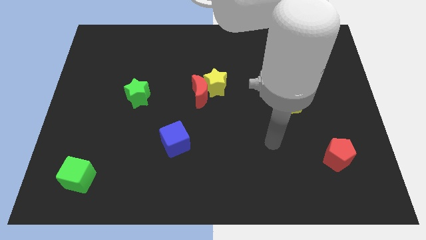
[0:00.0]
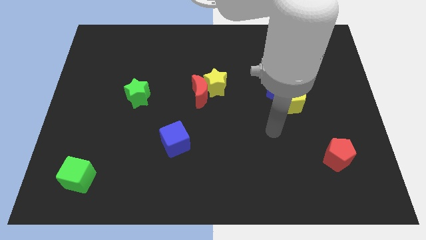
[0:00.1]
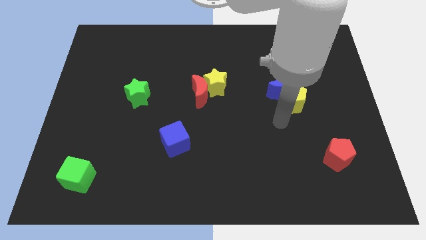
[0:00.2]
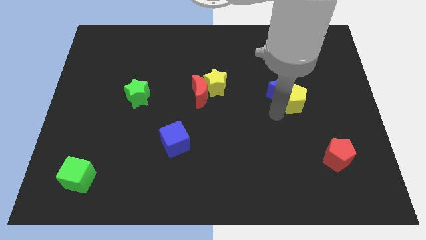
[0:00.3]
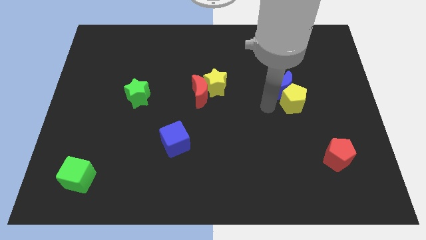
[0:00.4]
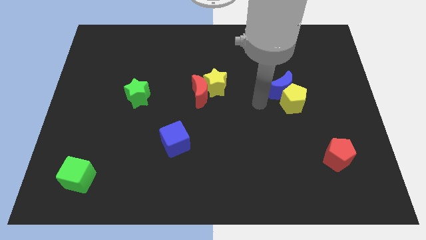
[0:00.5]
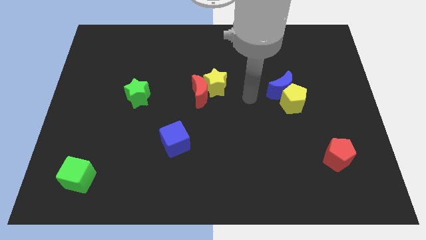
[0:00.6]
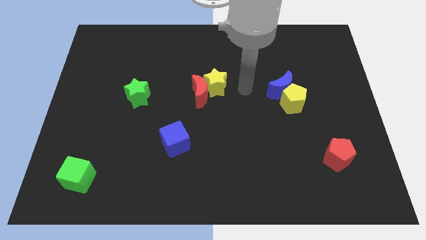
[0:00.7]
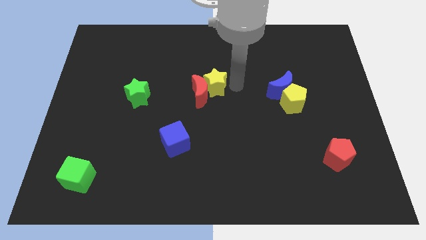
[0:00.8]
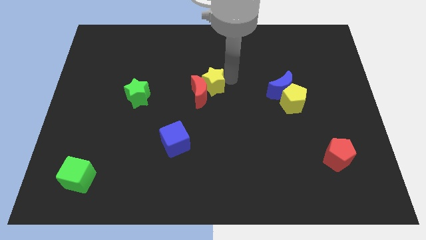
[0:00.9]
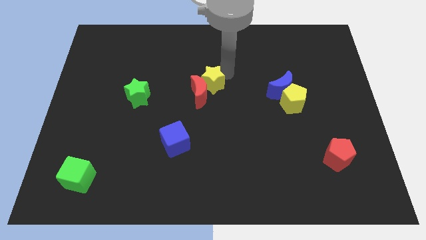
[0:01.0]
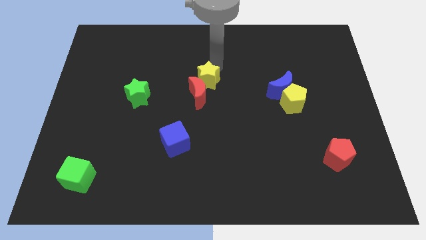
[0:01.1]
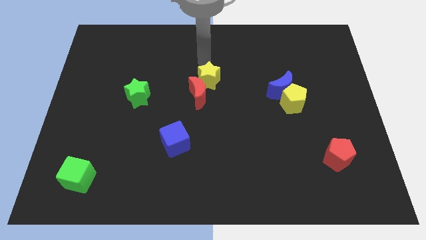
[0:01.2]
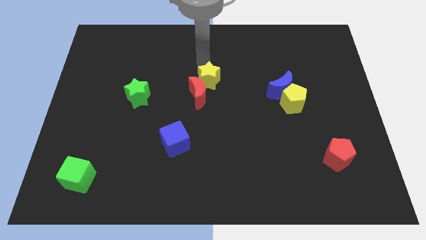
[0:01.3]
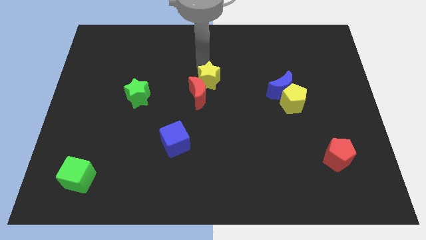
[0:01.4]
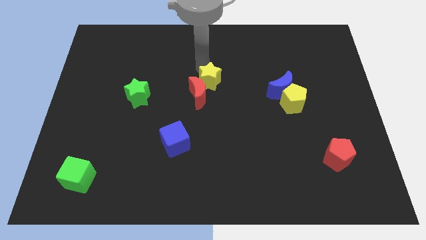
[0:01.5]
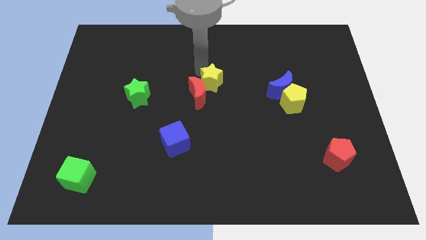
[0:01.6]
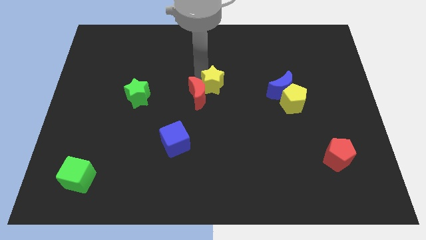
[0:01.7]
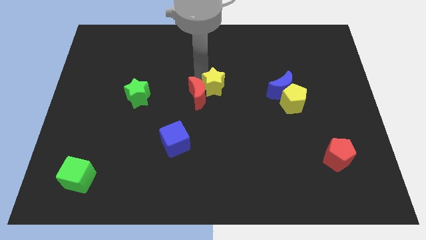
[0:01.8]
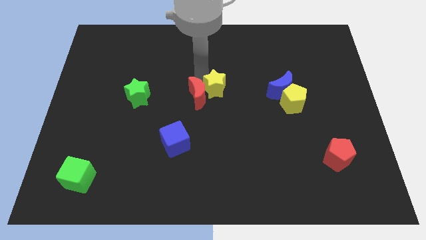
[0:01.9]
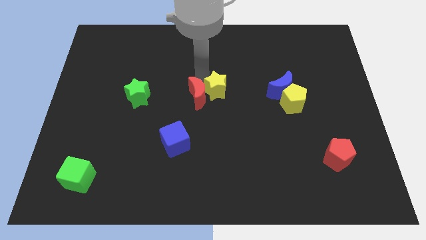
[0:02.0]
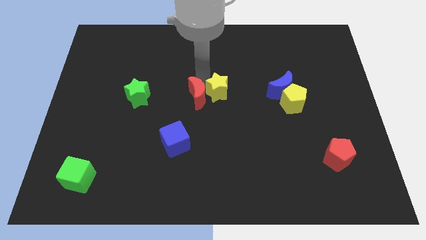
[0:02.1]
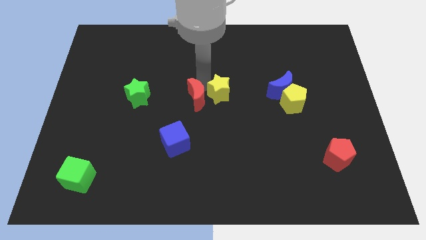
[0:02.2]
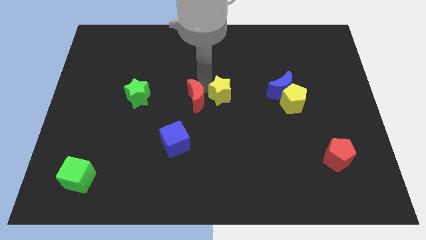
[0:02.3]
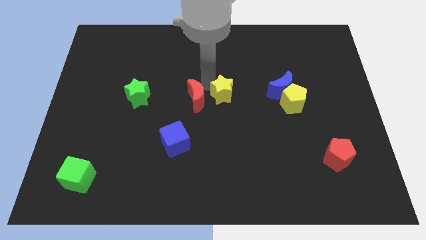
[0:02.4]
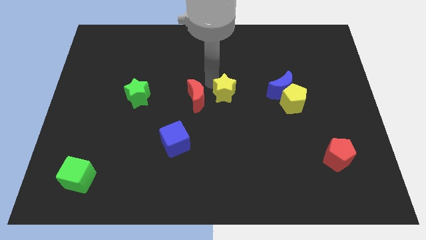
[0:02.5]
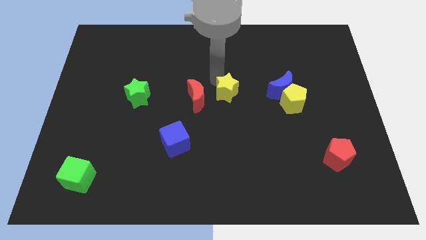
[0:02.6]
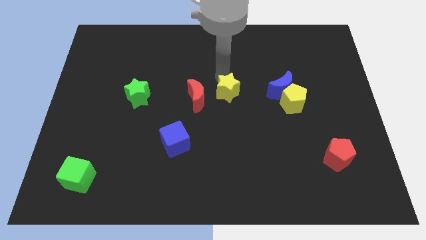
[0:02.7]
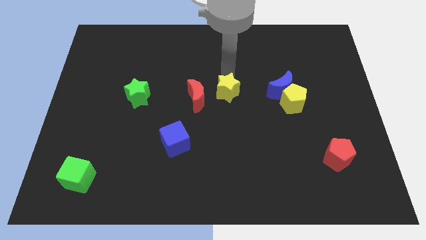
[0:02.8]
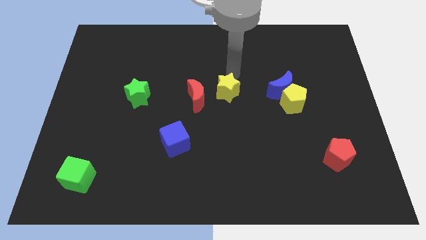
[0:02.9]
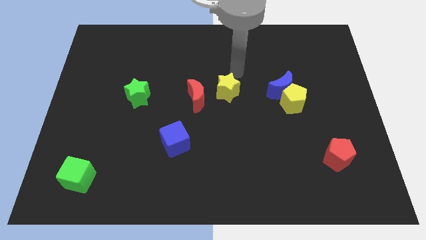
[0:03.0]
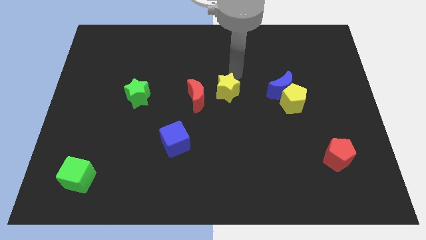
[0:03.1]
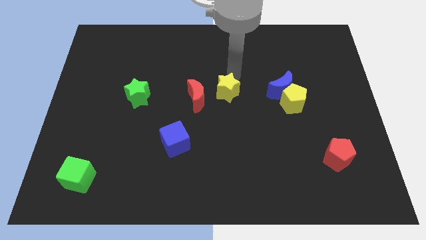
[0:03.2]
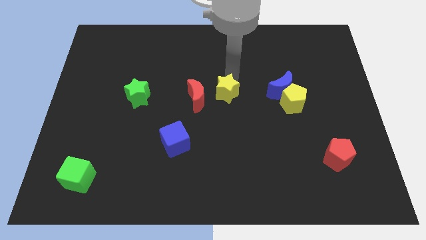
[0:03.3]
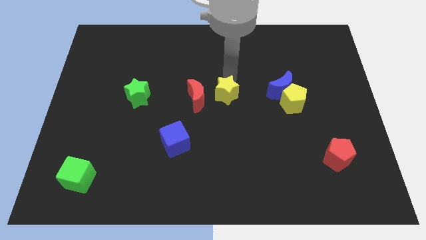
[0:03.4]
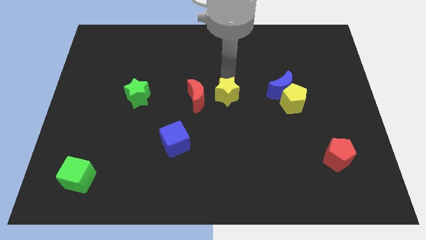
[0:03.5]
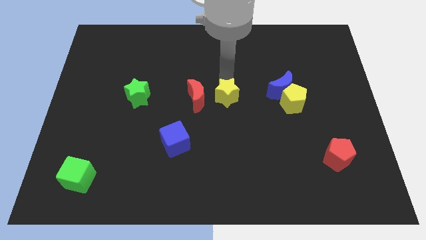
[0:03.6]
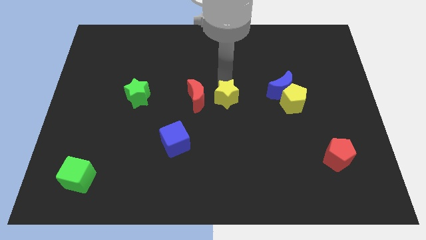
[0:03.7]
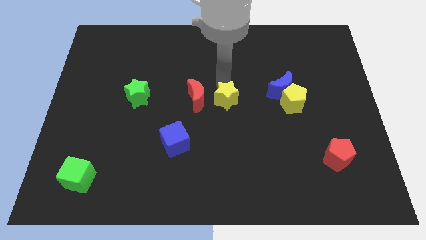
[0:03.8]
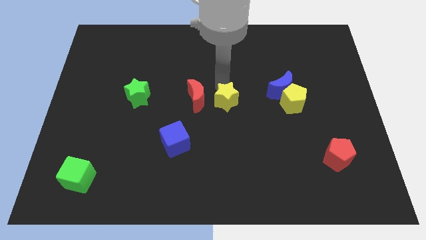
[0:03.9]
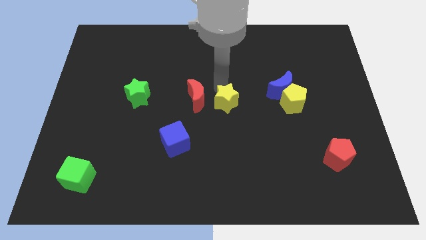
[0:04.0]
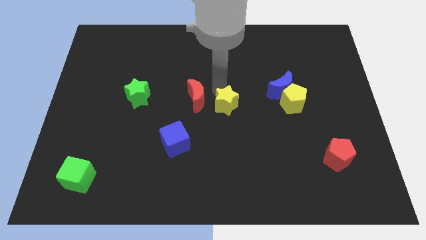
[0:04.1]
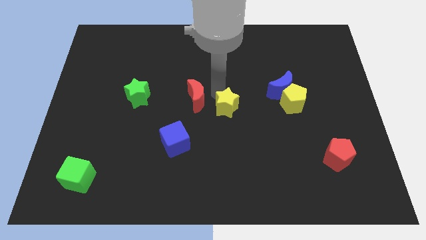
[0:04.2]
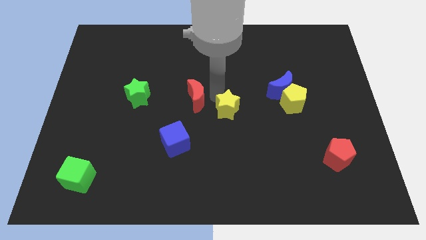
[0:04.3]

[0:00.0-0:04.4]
move the yellow star a little down

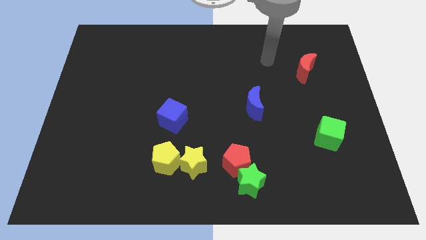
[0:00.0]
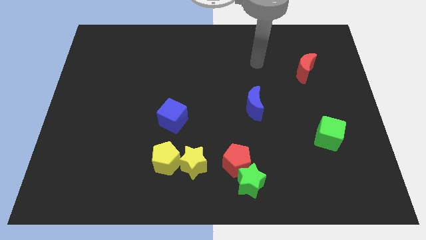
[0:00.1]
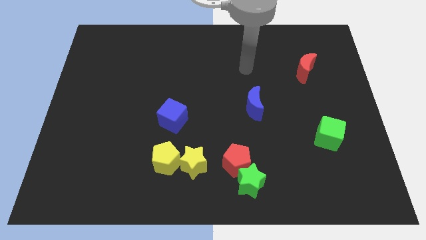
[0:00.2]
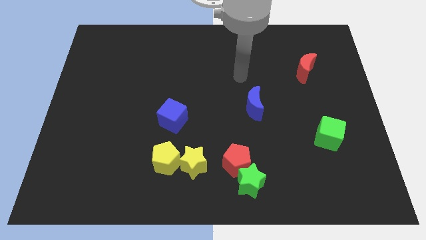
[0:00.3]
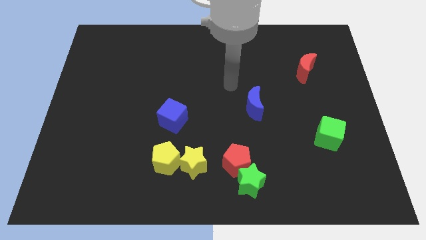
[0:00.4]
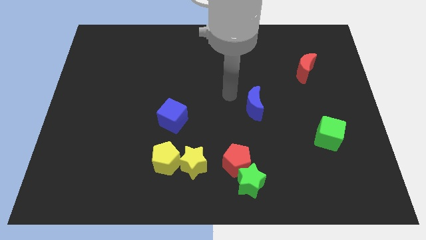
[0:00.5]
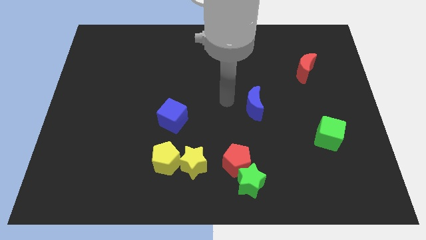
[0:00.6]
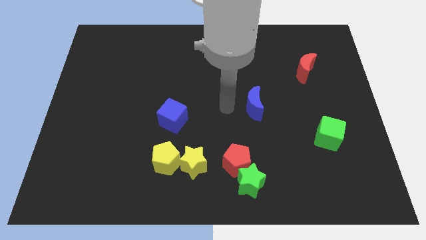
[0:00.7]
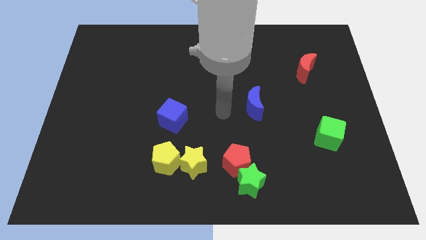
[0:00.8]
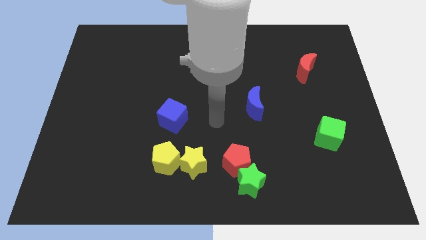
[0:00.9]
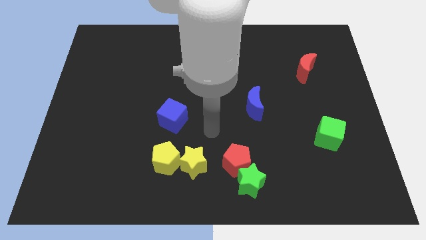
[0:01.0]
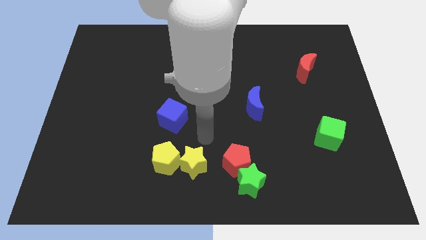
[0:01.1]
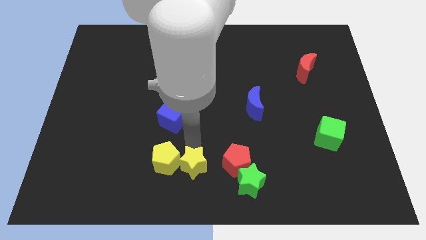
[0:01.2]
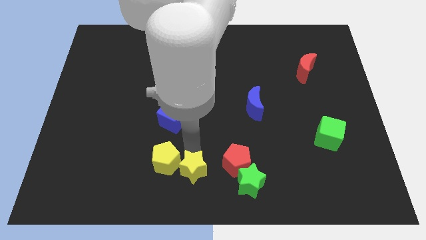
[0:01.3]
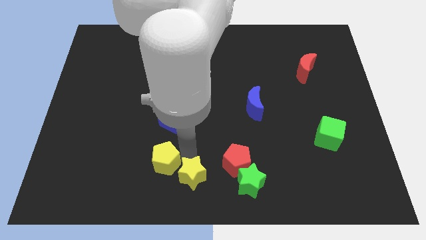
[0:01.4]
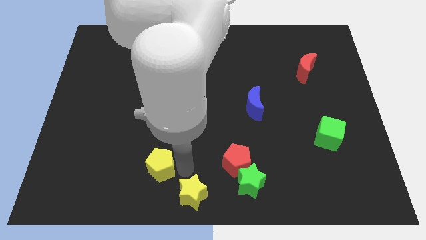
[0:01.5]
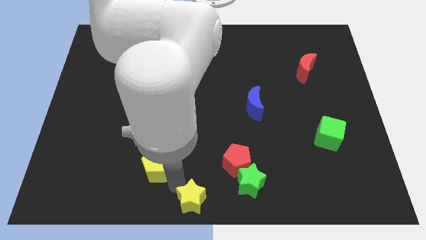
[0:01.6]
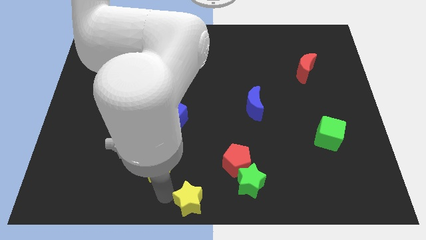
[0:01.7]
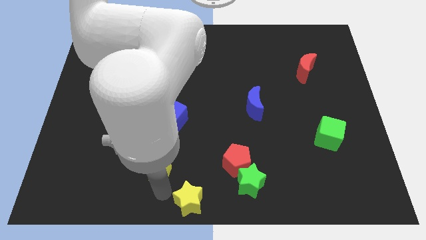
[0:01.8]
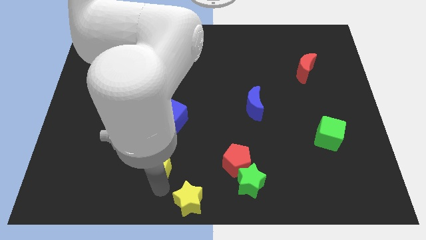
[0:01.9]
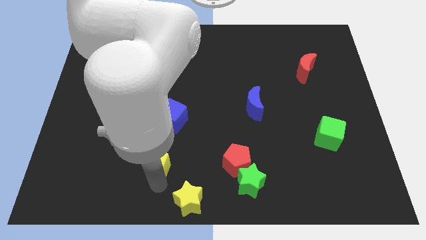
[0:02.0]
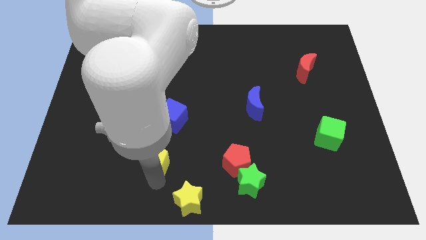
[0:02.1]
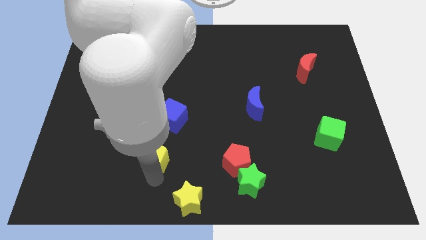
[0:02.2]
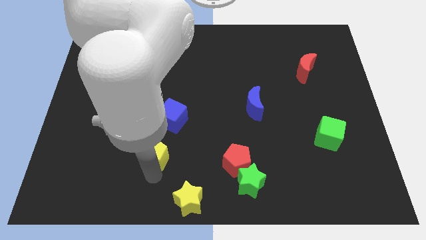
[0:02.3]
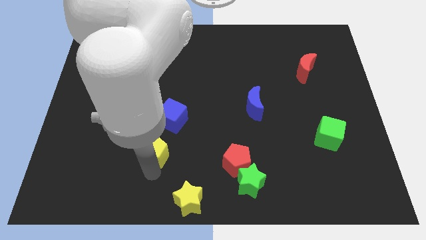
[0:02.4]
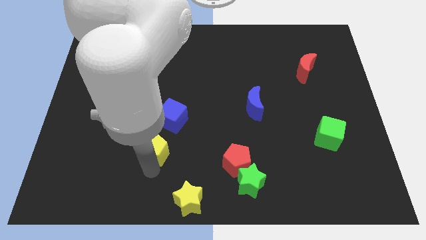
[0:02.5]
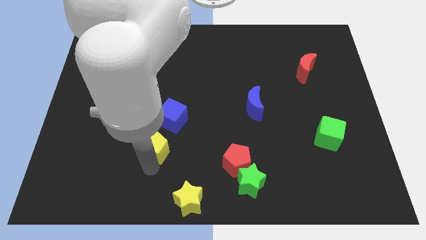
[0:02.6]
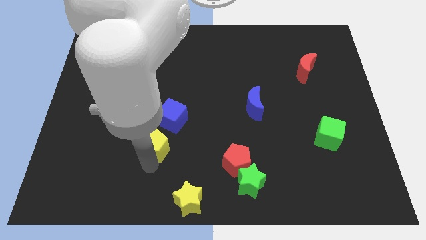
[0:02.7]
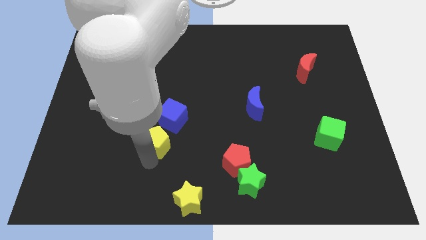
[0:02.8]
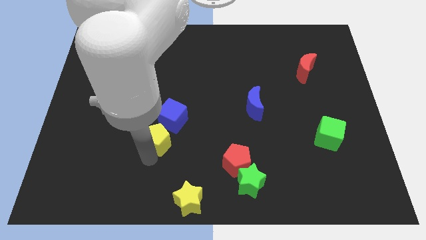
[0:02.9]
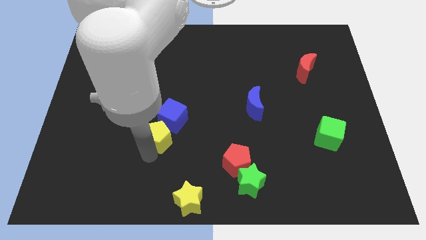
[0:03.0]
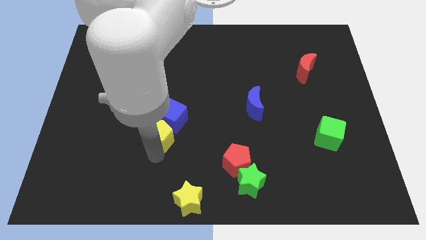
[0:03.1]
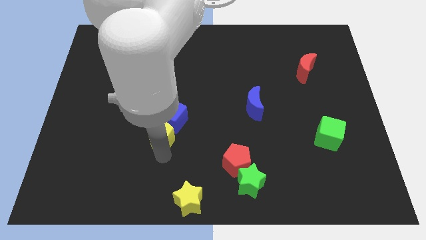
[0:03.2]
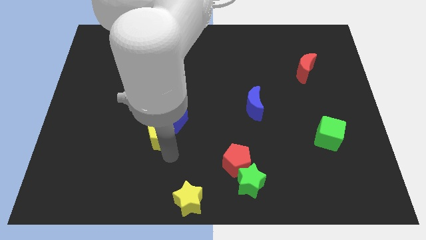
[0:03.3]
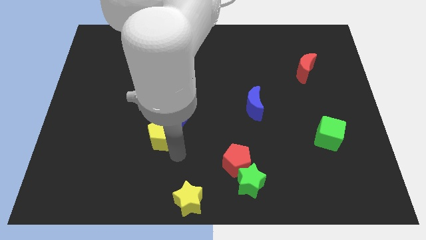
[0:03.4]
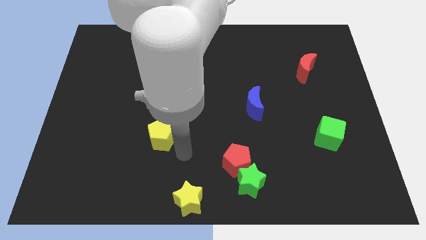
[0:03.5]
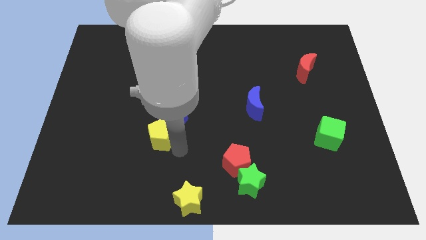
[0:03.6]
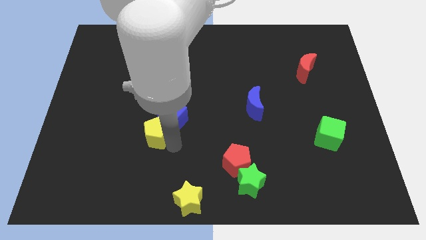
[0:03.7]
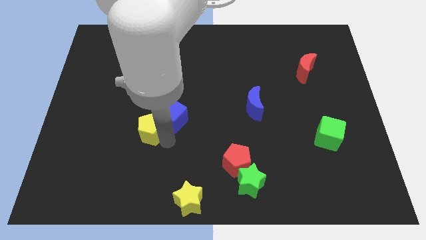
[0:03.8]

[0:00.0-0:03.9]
slightly move the yellow pentagon upwards and left diagonally
